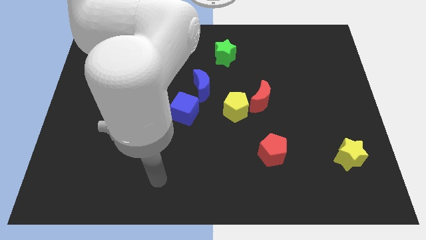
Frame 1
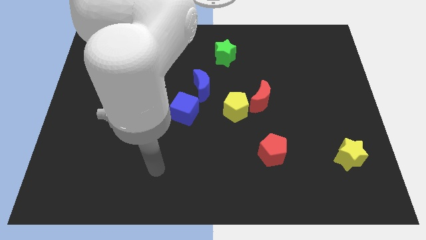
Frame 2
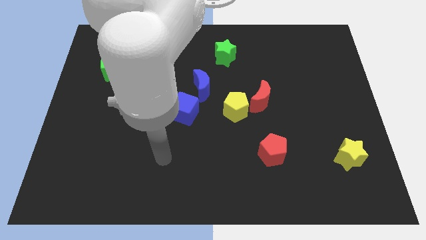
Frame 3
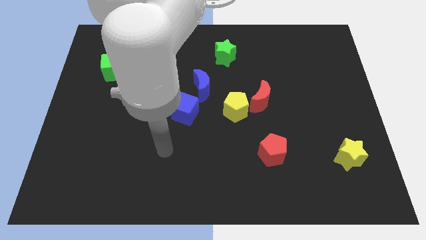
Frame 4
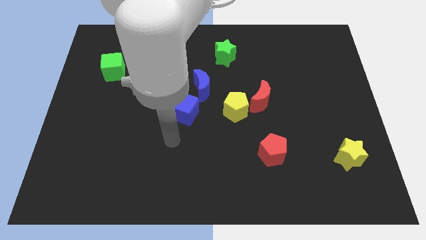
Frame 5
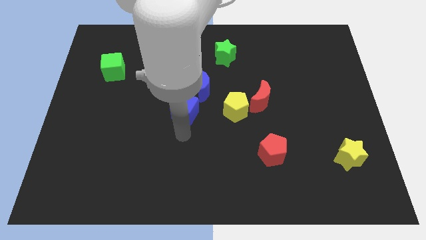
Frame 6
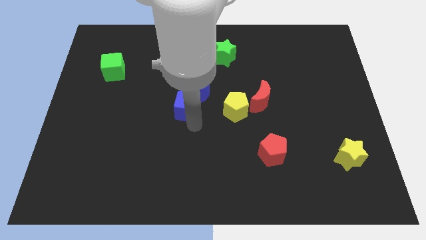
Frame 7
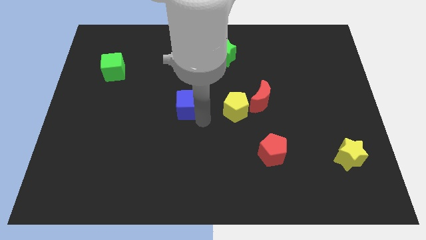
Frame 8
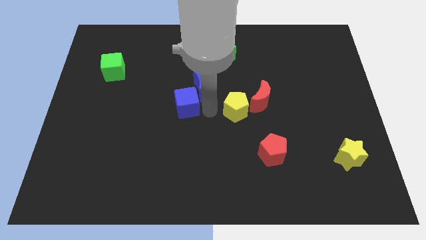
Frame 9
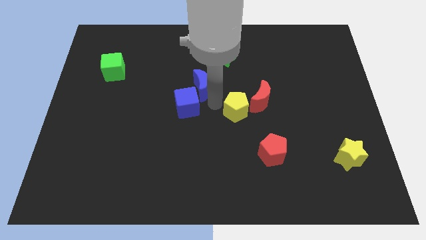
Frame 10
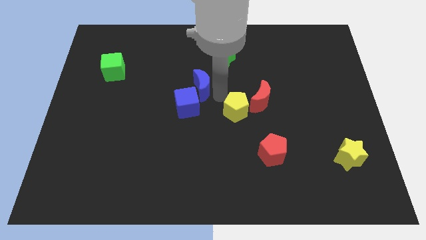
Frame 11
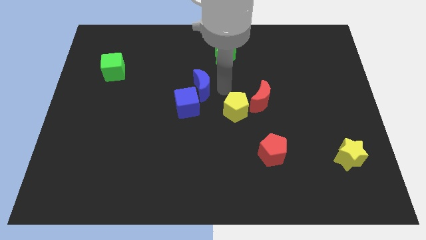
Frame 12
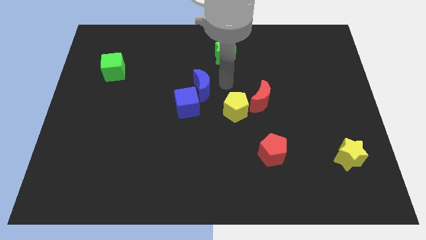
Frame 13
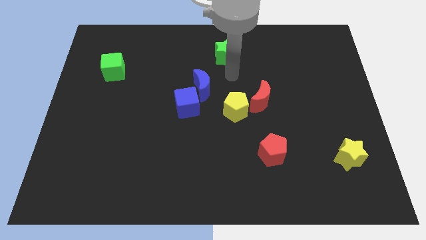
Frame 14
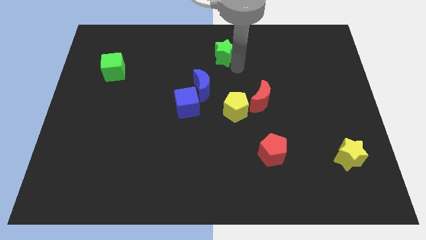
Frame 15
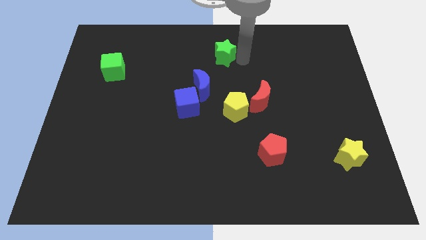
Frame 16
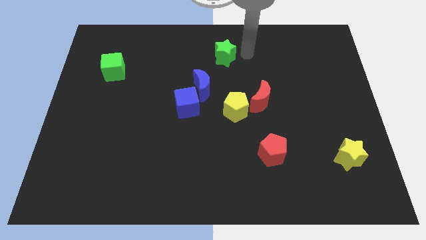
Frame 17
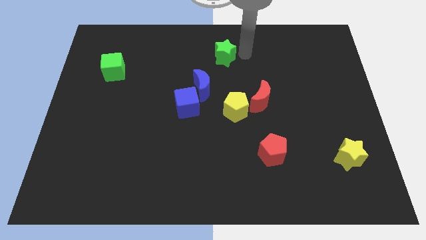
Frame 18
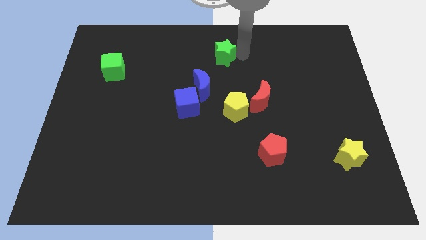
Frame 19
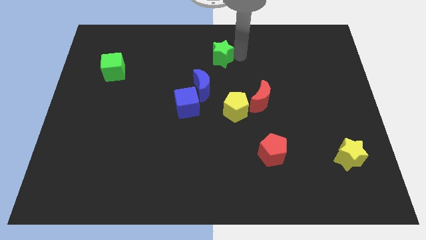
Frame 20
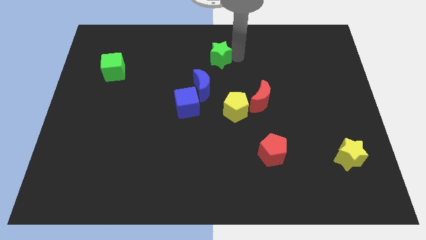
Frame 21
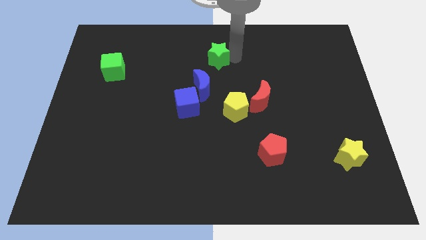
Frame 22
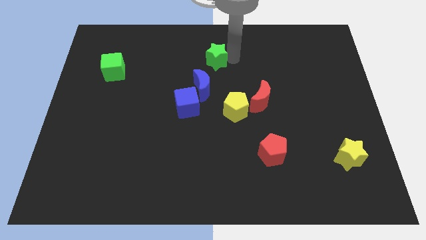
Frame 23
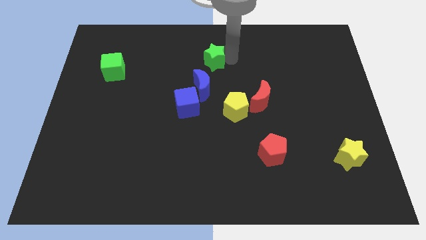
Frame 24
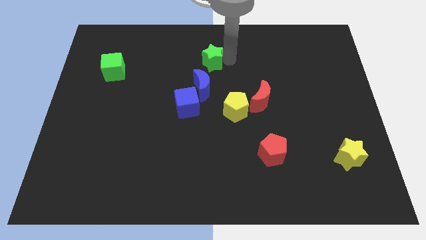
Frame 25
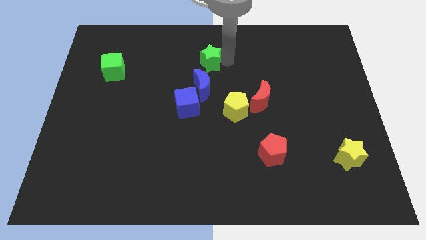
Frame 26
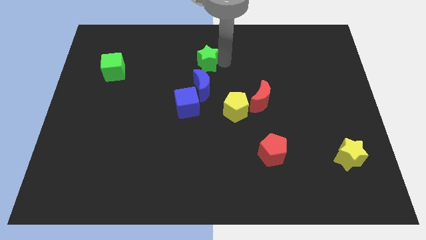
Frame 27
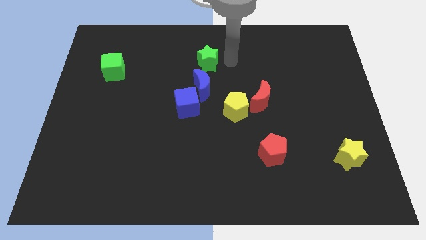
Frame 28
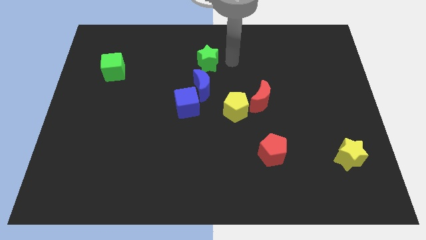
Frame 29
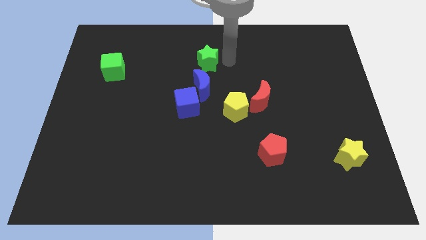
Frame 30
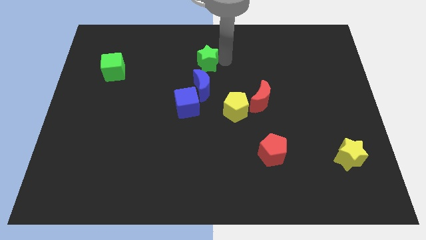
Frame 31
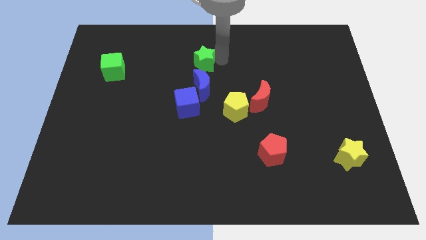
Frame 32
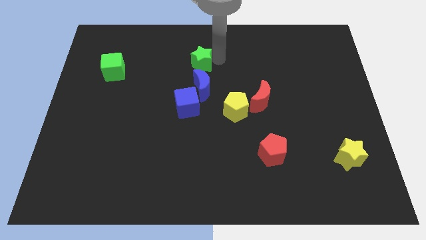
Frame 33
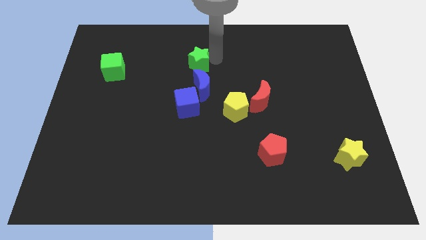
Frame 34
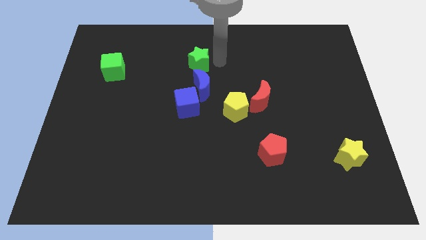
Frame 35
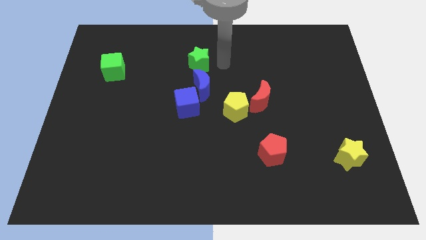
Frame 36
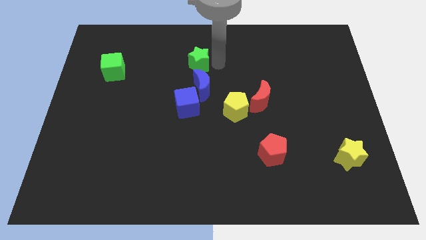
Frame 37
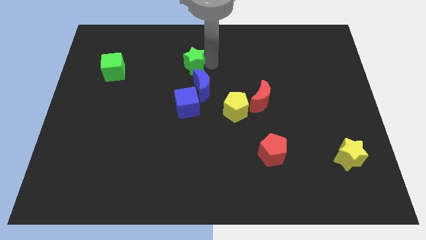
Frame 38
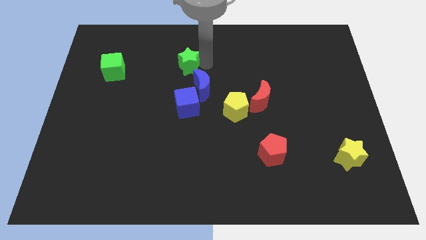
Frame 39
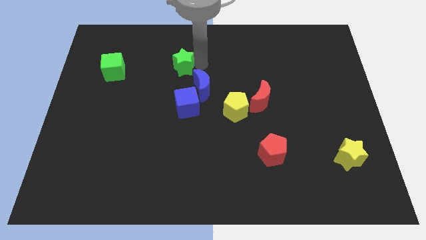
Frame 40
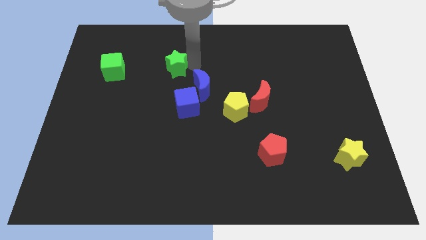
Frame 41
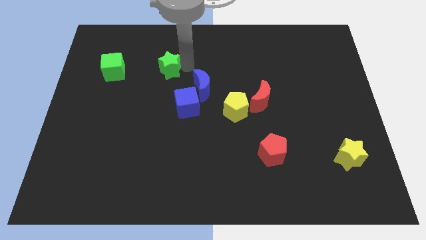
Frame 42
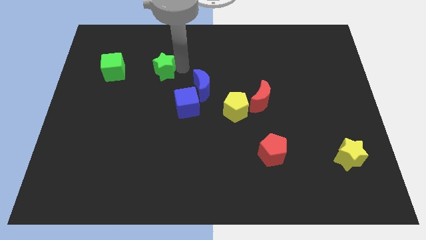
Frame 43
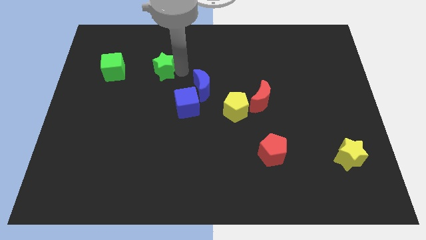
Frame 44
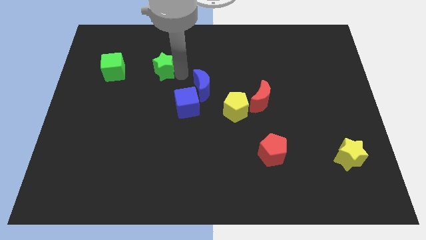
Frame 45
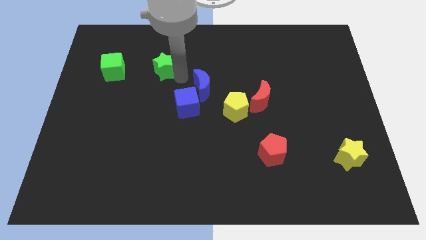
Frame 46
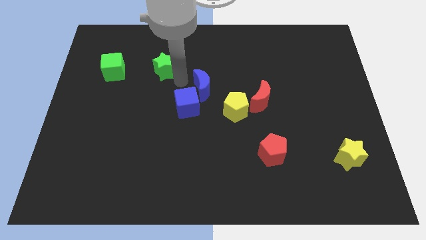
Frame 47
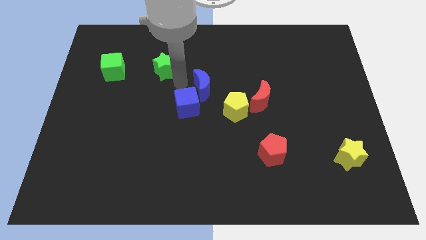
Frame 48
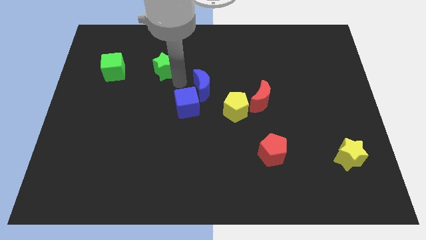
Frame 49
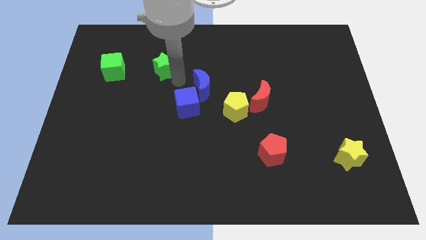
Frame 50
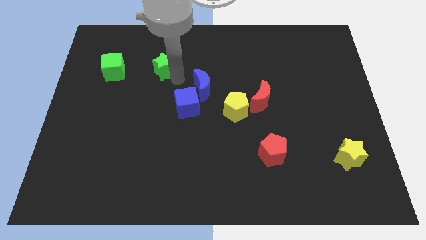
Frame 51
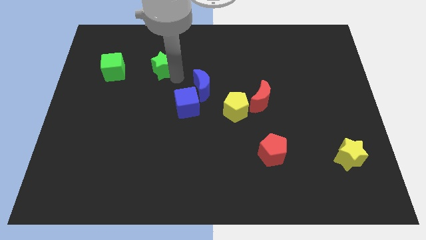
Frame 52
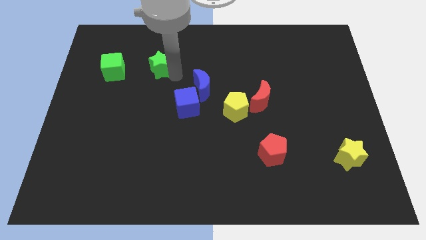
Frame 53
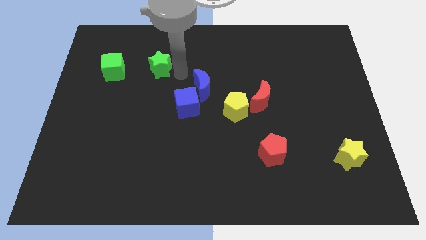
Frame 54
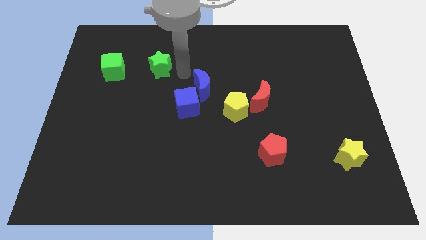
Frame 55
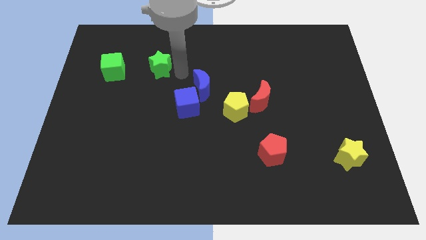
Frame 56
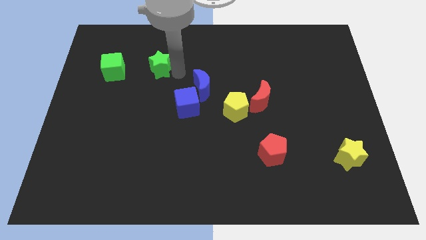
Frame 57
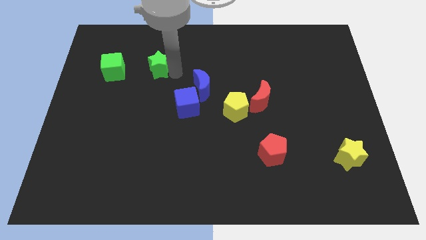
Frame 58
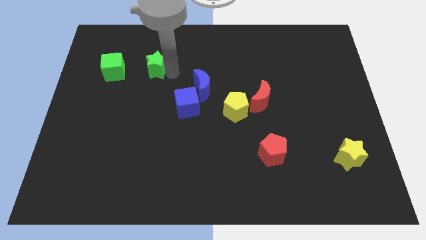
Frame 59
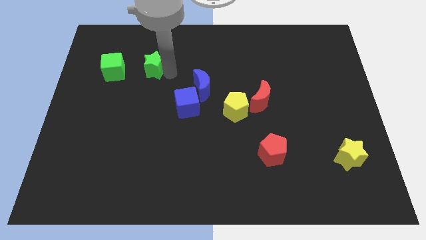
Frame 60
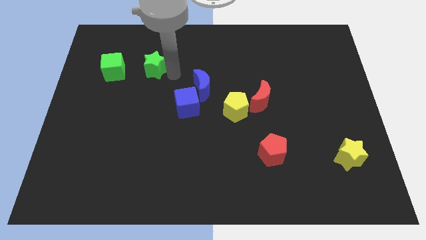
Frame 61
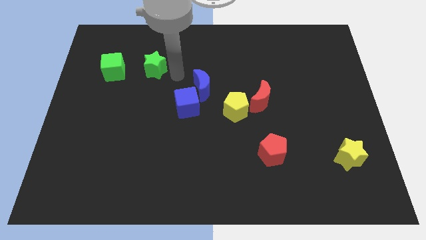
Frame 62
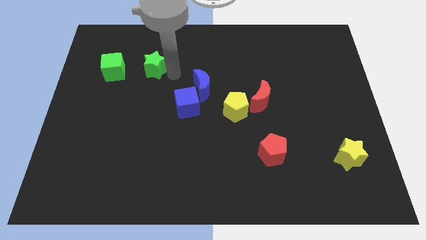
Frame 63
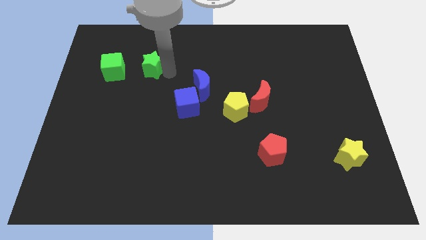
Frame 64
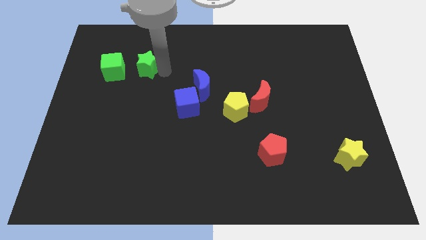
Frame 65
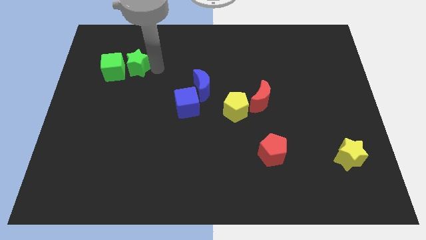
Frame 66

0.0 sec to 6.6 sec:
move the green star next to the green cube
